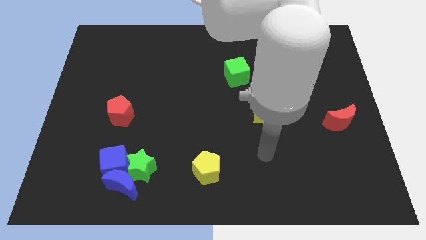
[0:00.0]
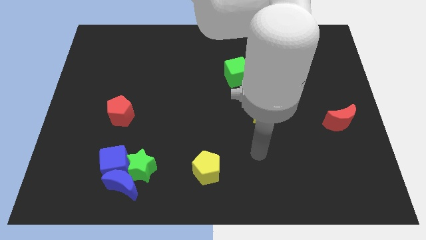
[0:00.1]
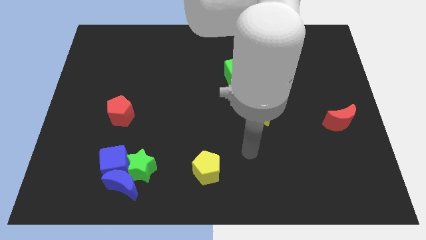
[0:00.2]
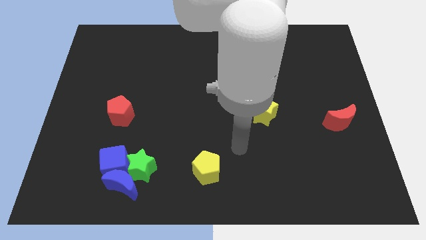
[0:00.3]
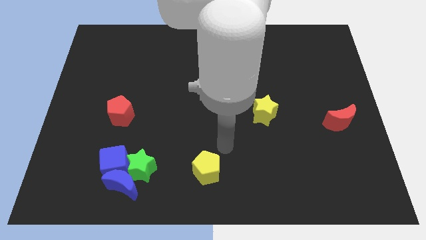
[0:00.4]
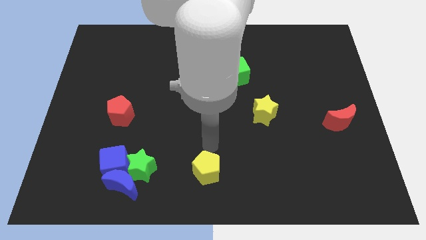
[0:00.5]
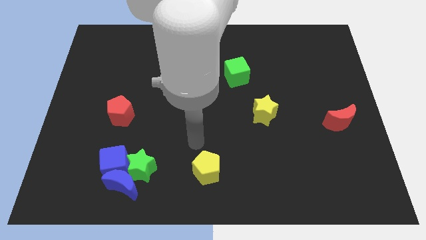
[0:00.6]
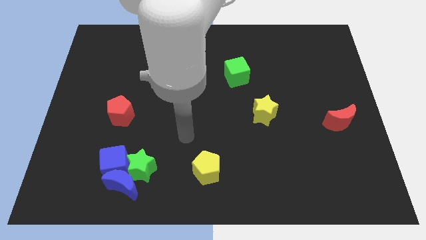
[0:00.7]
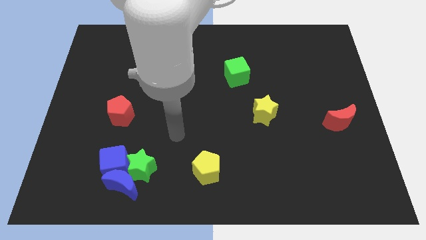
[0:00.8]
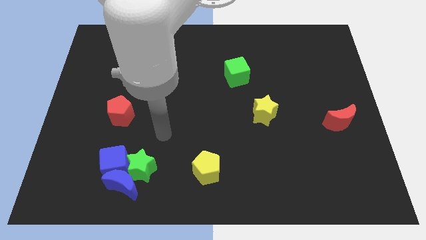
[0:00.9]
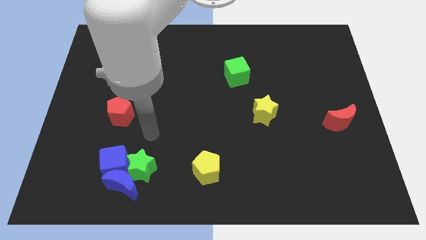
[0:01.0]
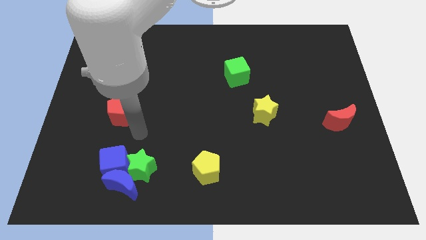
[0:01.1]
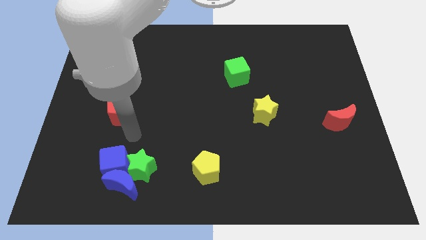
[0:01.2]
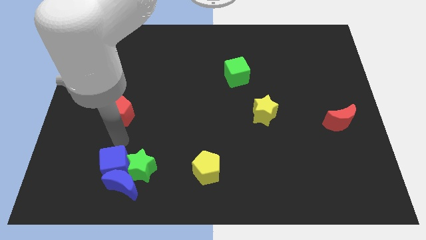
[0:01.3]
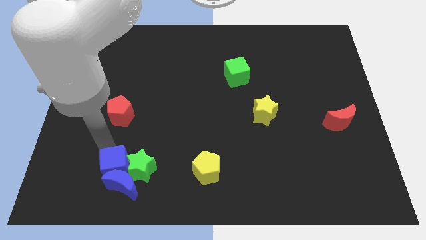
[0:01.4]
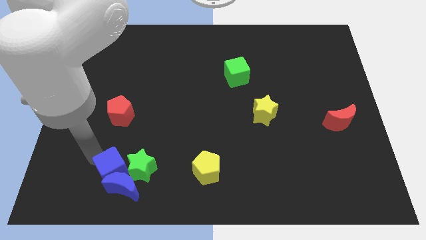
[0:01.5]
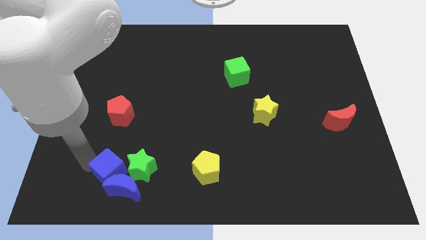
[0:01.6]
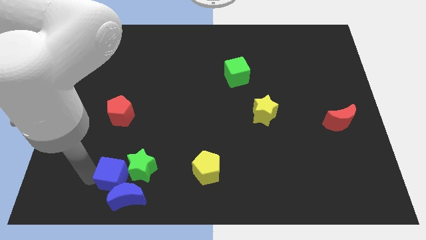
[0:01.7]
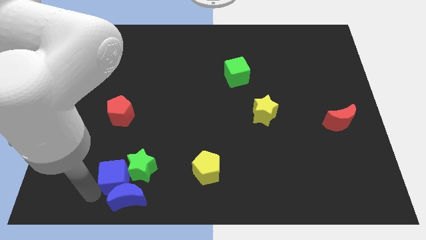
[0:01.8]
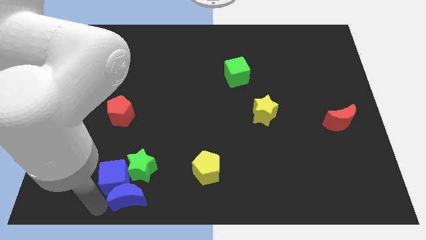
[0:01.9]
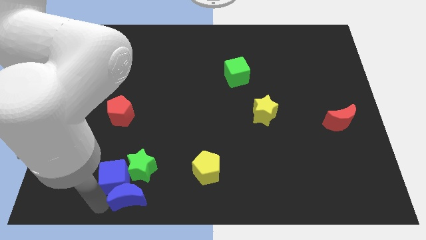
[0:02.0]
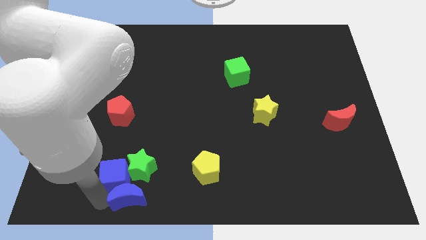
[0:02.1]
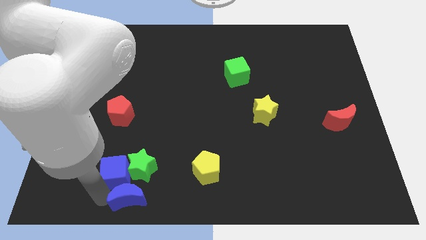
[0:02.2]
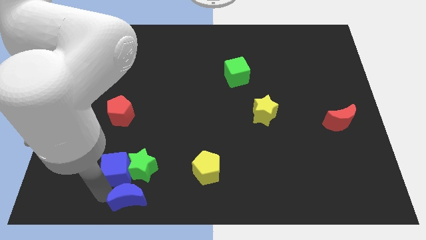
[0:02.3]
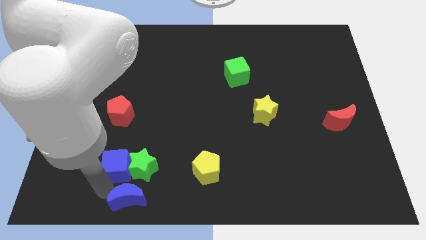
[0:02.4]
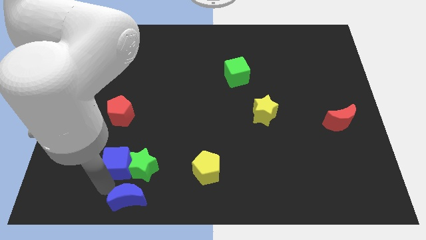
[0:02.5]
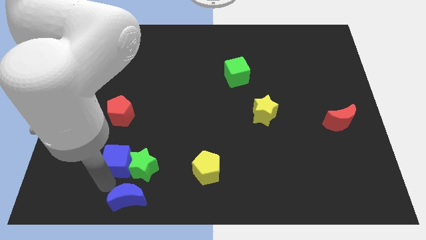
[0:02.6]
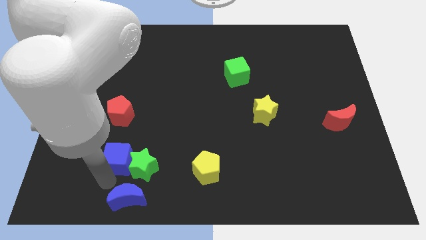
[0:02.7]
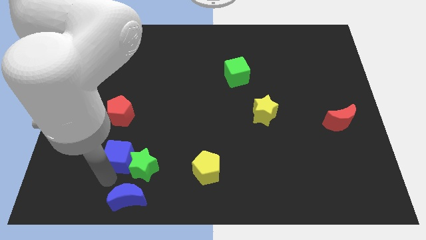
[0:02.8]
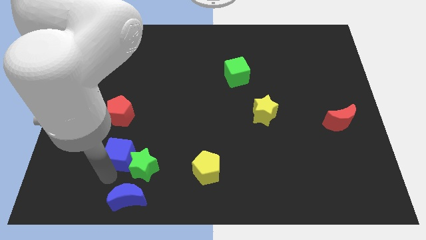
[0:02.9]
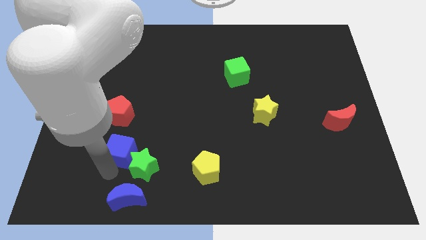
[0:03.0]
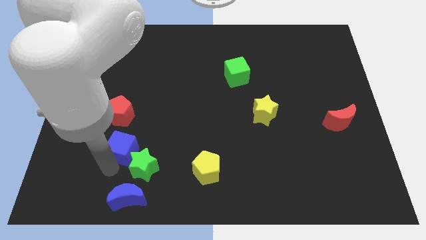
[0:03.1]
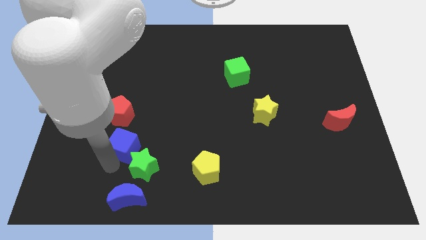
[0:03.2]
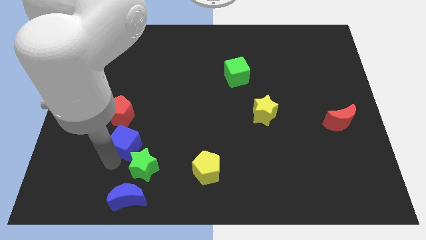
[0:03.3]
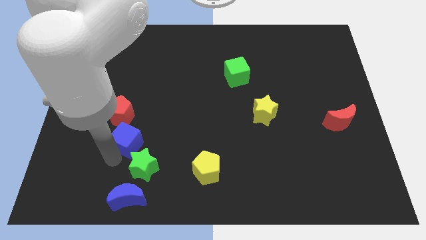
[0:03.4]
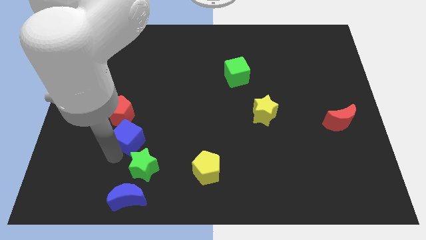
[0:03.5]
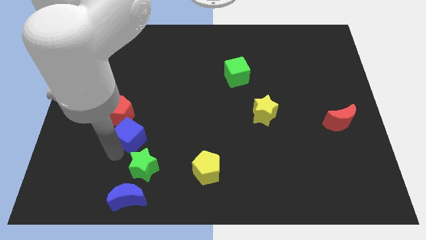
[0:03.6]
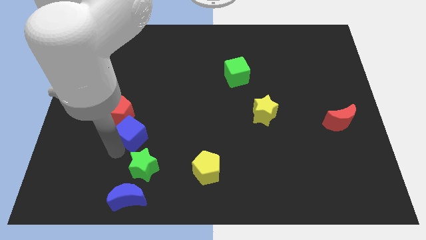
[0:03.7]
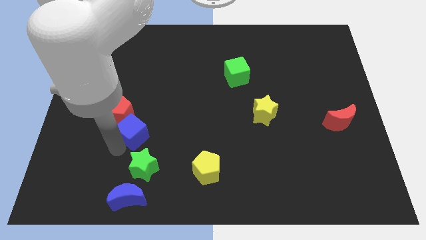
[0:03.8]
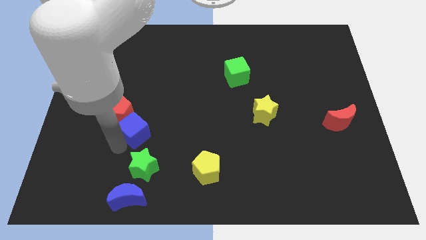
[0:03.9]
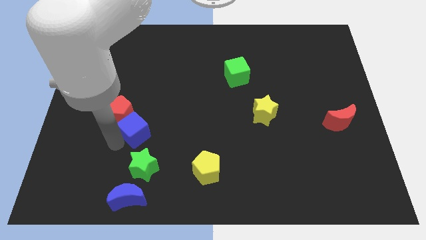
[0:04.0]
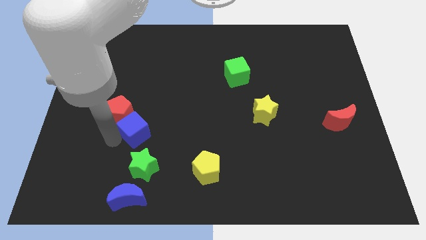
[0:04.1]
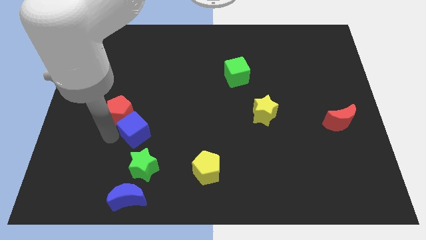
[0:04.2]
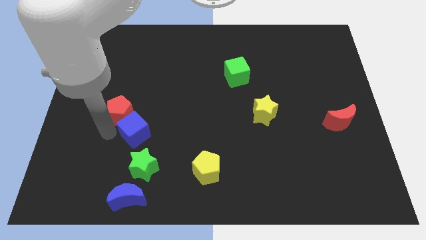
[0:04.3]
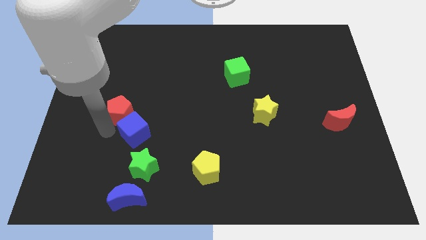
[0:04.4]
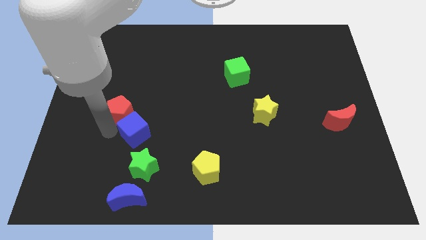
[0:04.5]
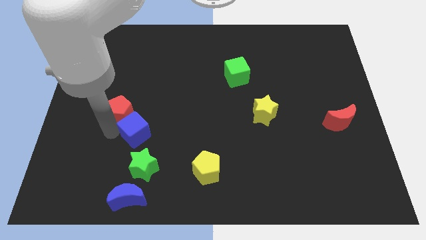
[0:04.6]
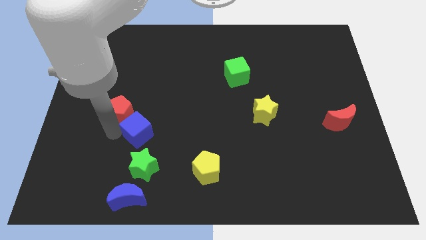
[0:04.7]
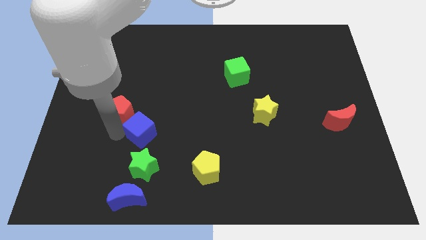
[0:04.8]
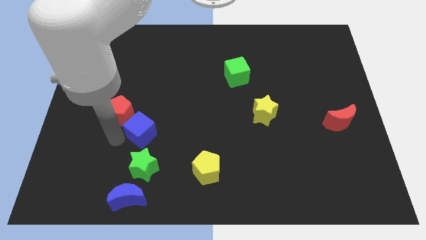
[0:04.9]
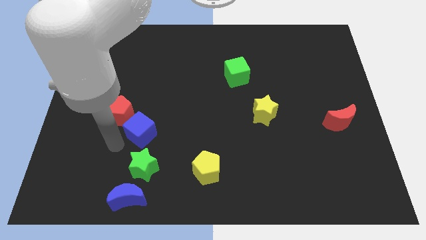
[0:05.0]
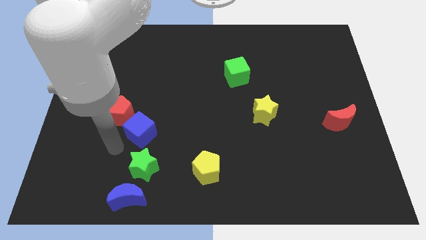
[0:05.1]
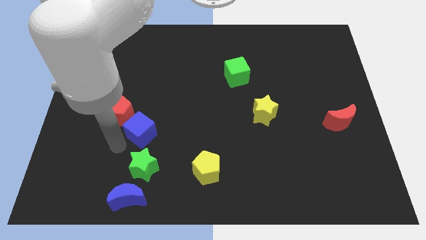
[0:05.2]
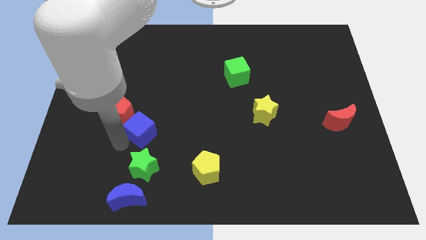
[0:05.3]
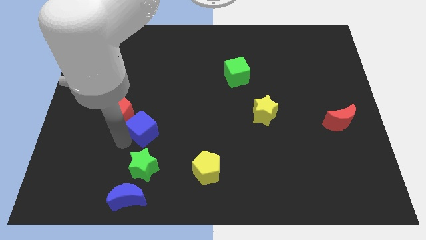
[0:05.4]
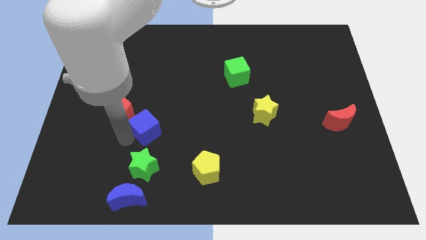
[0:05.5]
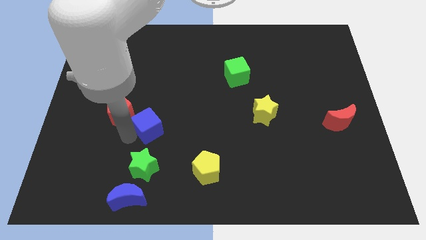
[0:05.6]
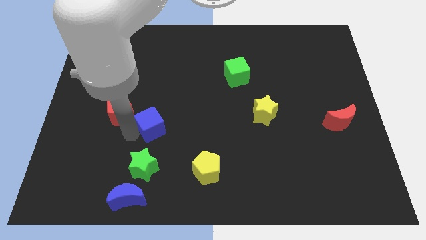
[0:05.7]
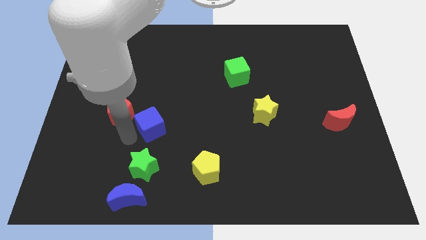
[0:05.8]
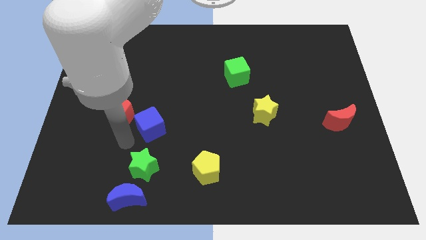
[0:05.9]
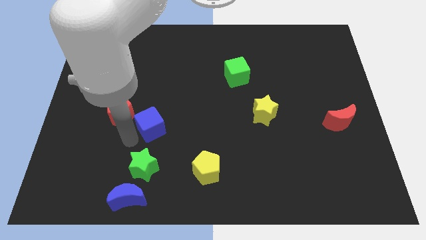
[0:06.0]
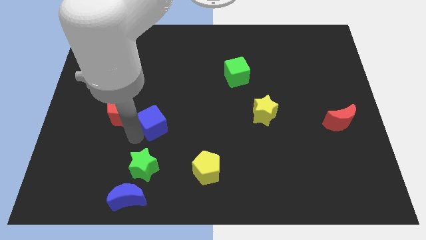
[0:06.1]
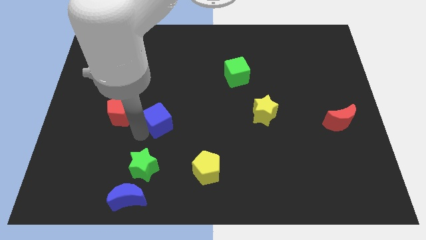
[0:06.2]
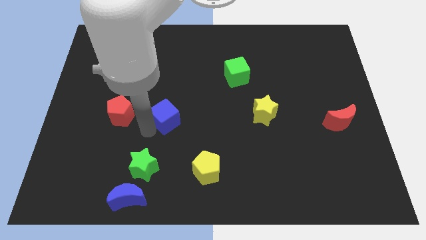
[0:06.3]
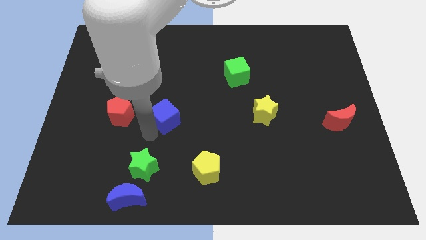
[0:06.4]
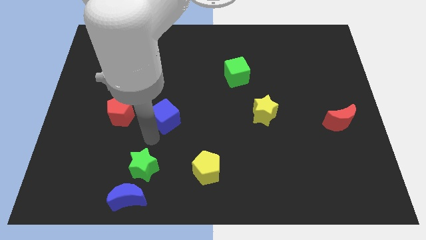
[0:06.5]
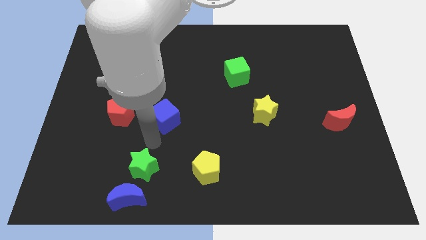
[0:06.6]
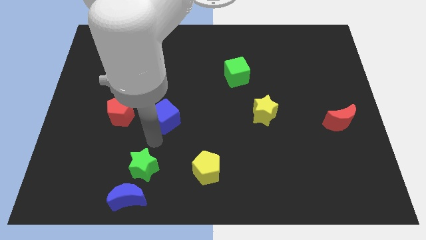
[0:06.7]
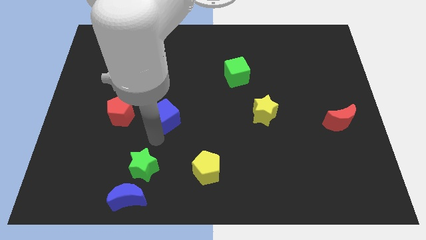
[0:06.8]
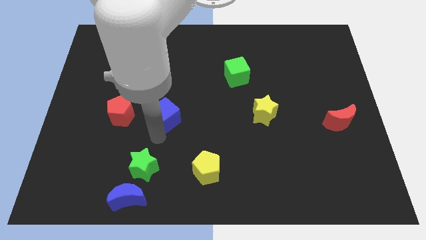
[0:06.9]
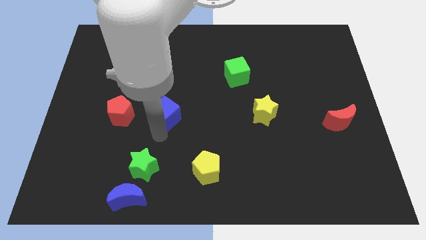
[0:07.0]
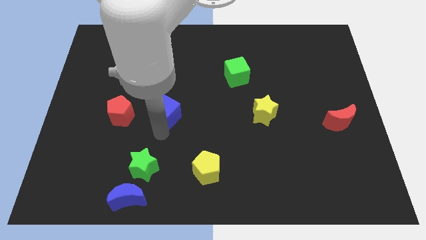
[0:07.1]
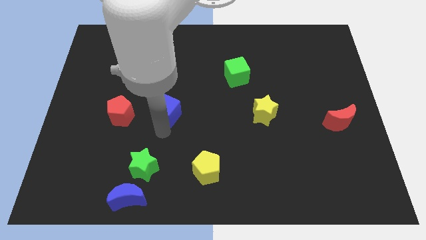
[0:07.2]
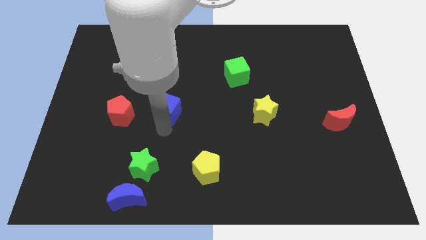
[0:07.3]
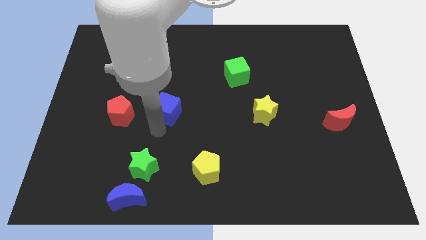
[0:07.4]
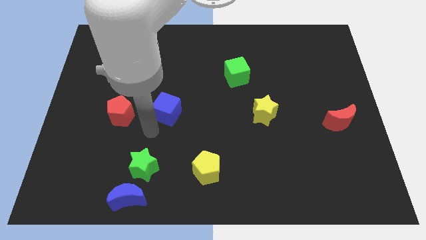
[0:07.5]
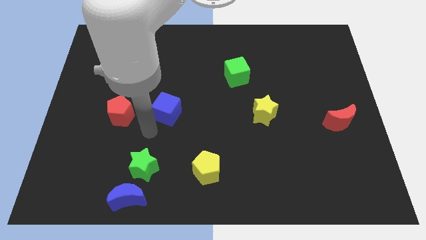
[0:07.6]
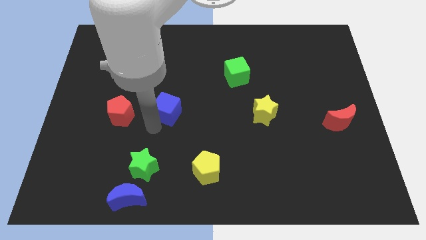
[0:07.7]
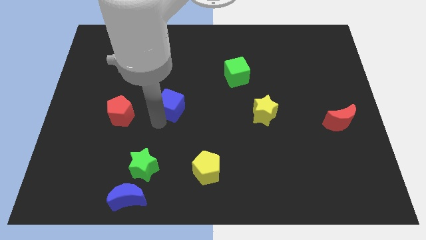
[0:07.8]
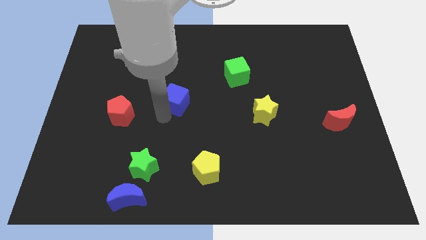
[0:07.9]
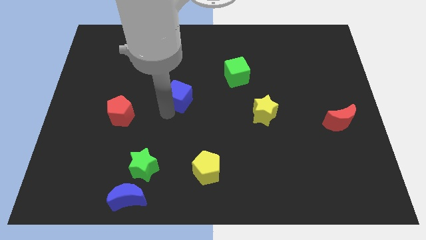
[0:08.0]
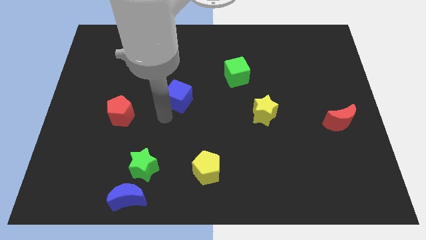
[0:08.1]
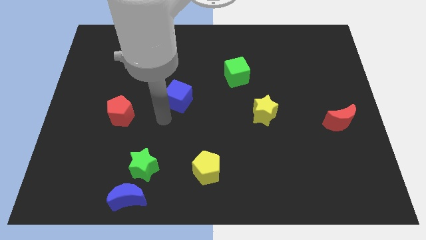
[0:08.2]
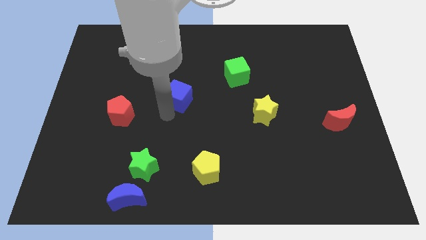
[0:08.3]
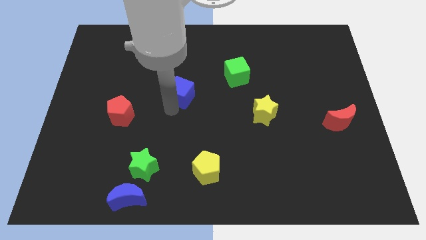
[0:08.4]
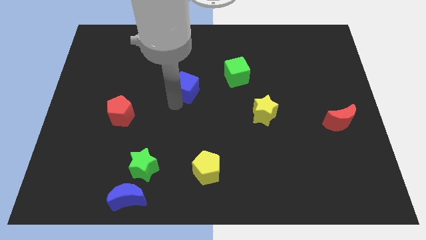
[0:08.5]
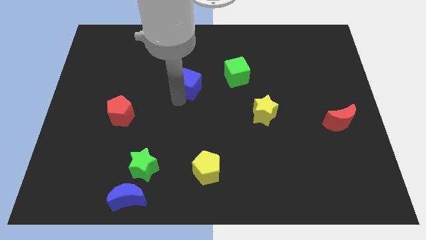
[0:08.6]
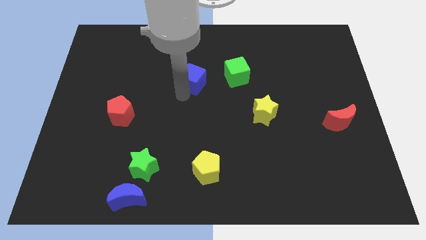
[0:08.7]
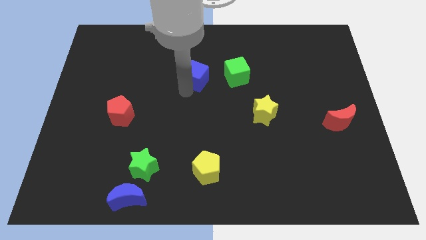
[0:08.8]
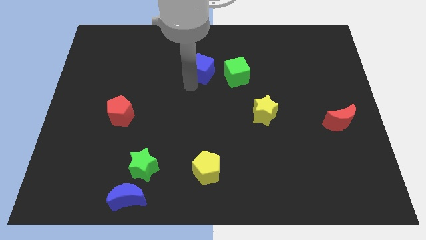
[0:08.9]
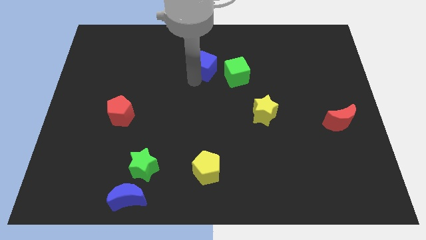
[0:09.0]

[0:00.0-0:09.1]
move the blue cube to the top left of the green cube
